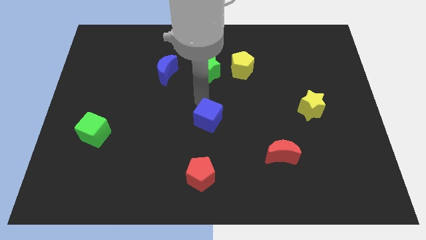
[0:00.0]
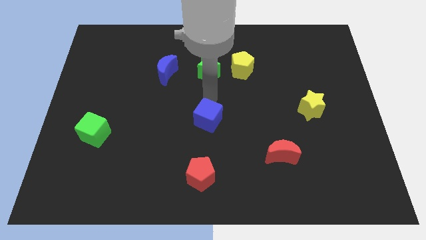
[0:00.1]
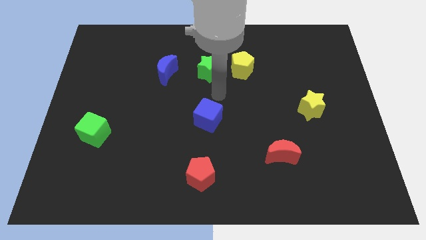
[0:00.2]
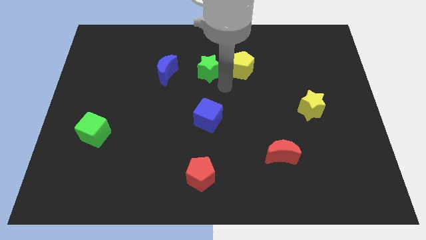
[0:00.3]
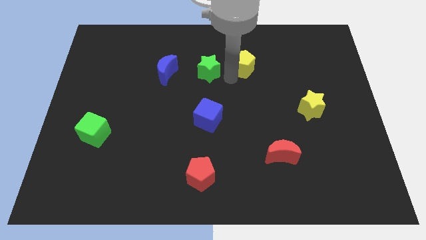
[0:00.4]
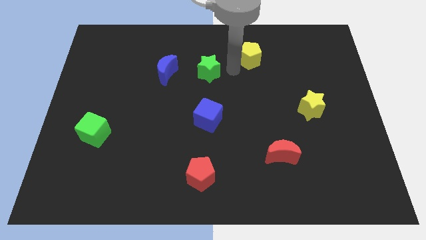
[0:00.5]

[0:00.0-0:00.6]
move the green star away from the yellow pentagon

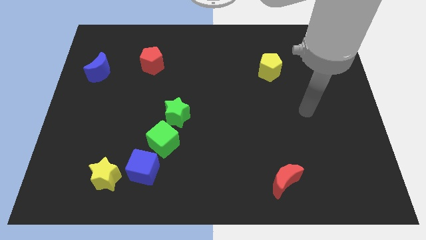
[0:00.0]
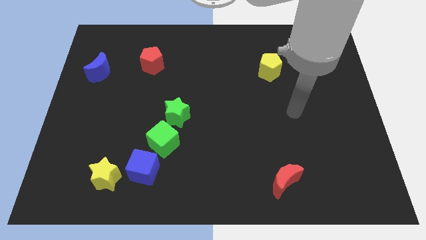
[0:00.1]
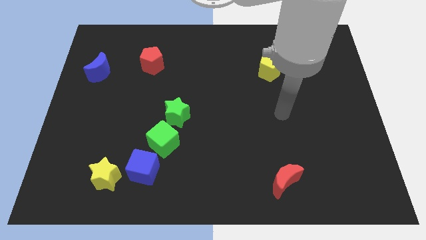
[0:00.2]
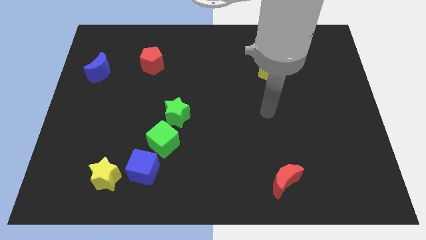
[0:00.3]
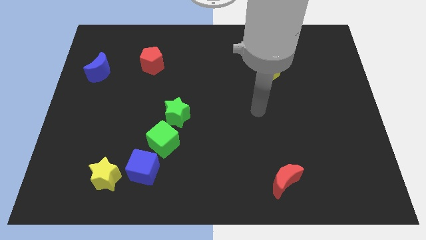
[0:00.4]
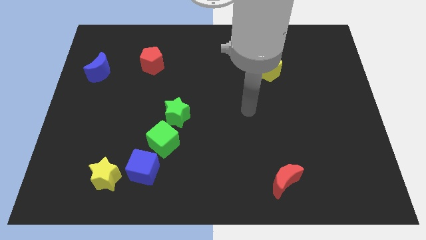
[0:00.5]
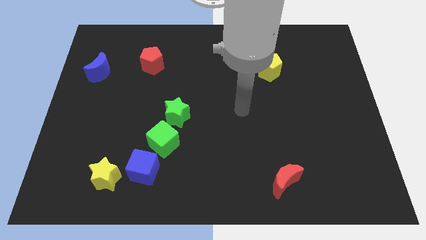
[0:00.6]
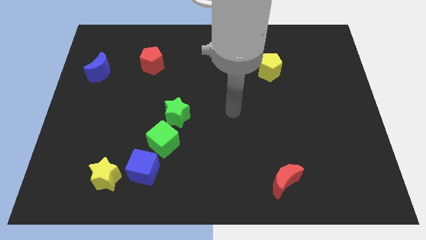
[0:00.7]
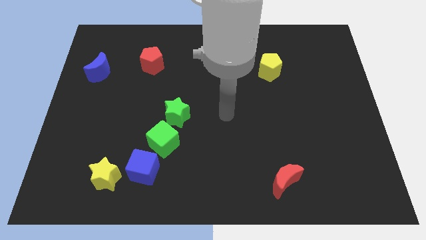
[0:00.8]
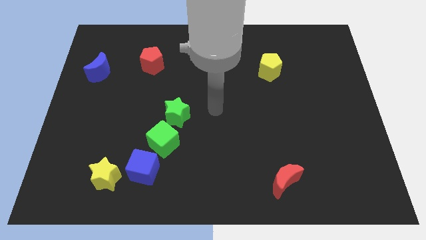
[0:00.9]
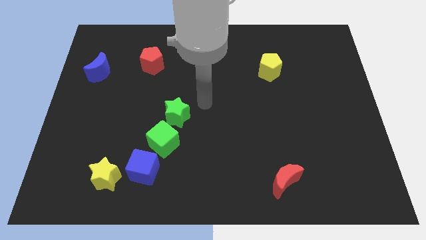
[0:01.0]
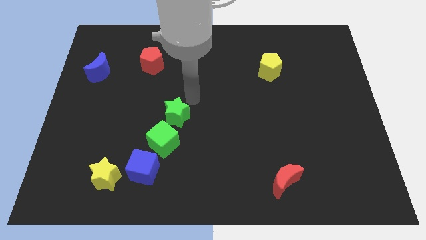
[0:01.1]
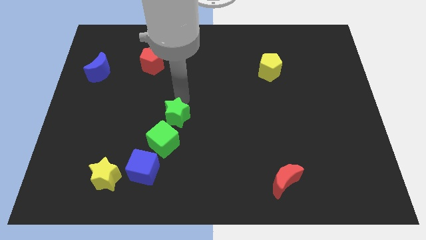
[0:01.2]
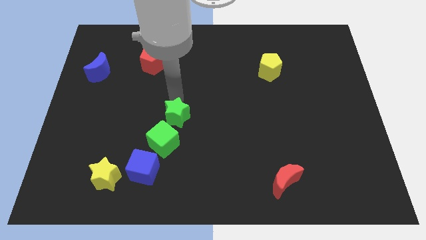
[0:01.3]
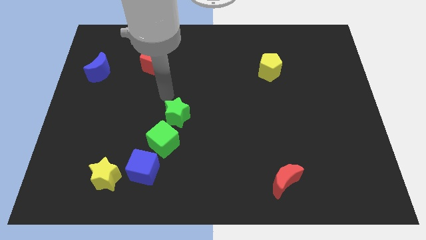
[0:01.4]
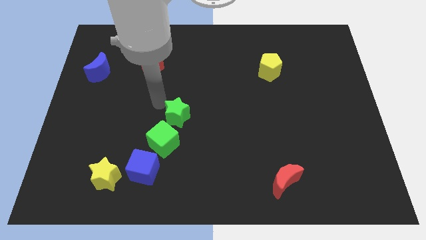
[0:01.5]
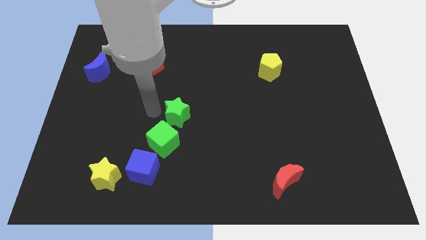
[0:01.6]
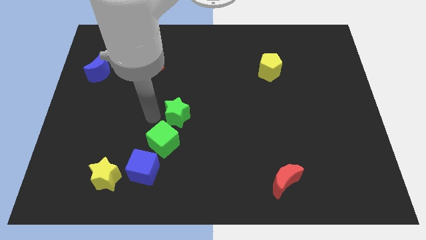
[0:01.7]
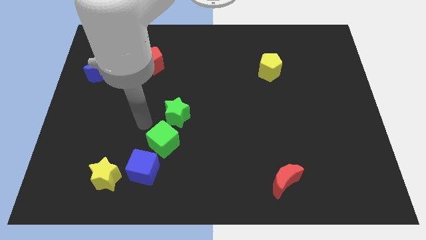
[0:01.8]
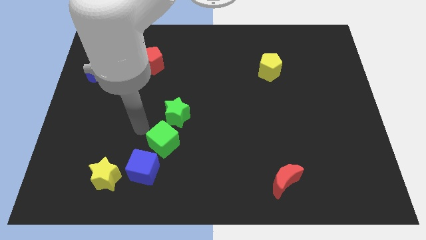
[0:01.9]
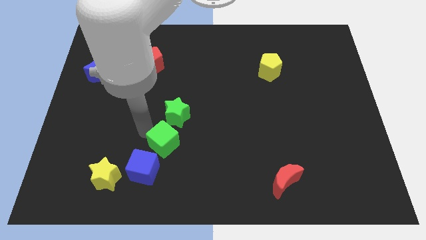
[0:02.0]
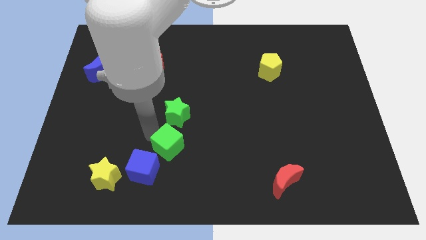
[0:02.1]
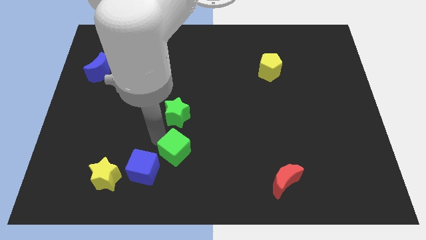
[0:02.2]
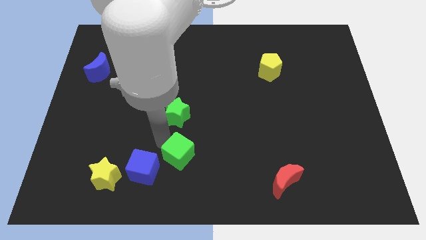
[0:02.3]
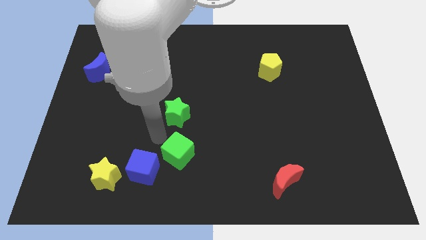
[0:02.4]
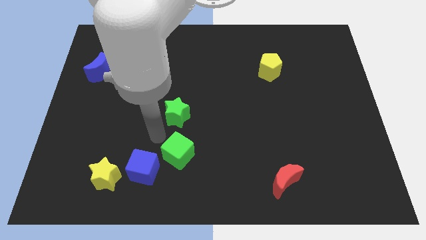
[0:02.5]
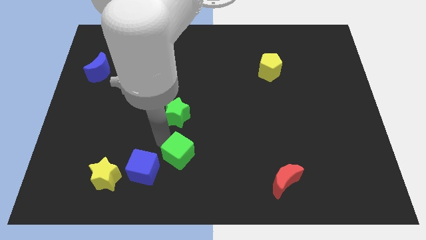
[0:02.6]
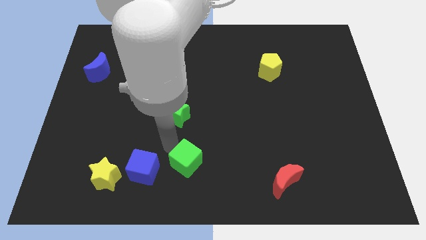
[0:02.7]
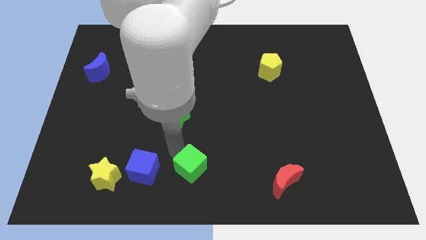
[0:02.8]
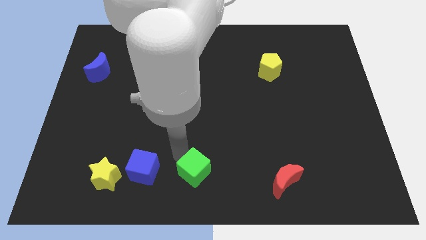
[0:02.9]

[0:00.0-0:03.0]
pull the green cube apart from the blue cube and green star

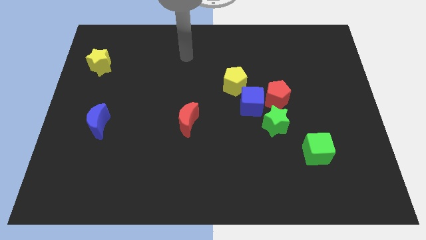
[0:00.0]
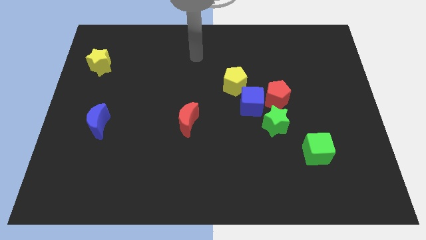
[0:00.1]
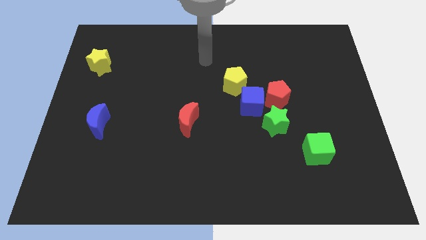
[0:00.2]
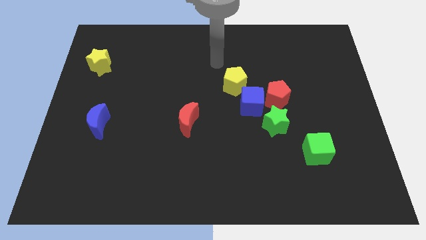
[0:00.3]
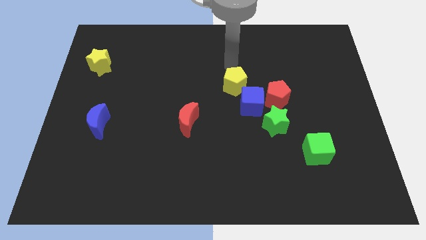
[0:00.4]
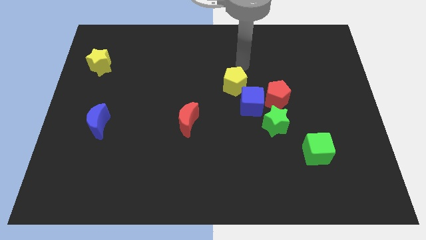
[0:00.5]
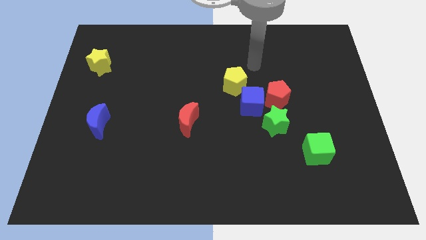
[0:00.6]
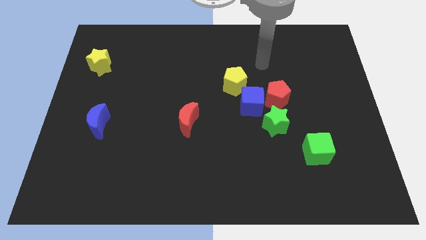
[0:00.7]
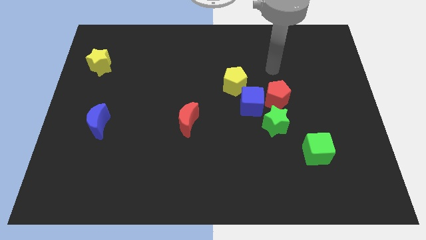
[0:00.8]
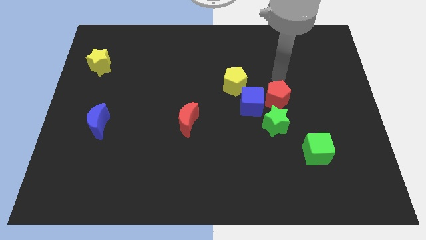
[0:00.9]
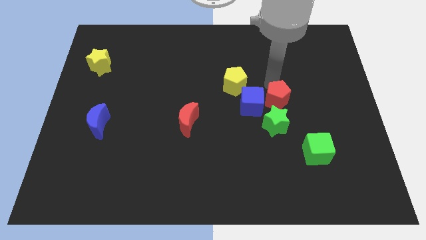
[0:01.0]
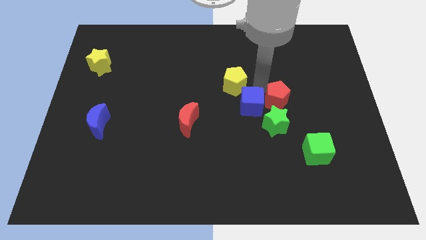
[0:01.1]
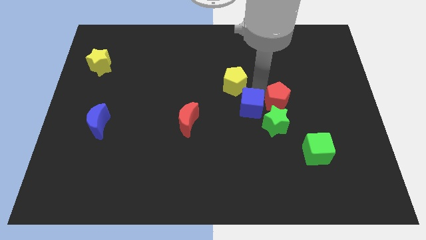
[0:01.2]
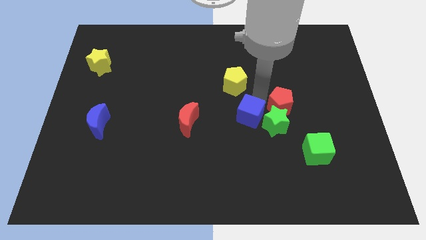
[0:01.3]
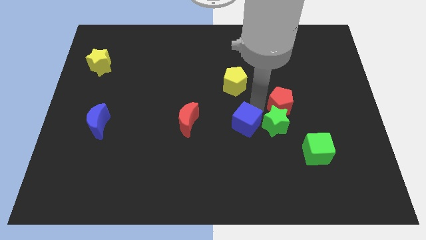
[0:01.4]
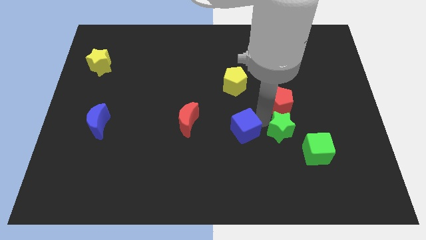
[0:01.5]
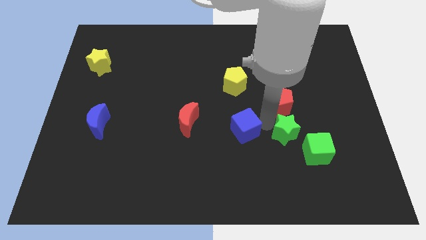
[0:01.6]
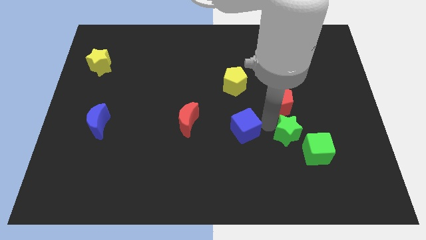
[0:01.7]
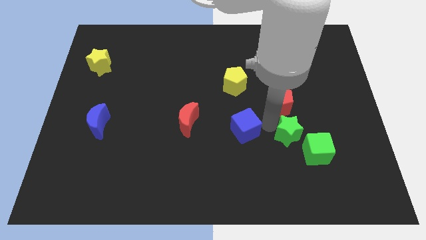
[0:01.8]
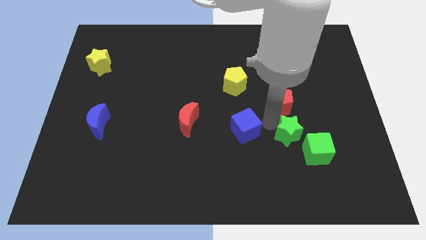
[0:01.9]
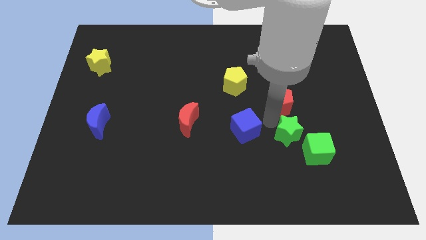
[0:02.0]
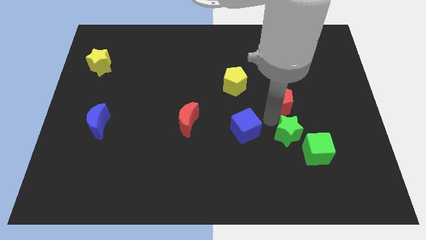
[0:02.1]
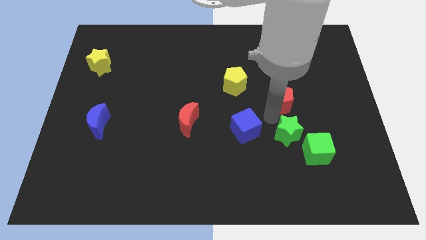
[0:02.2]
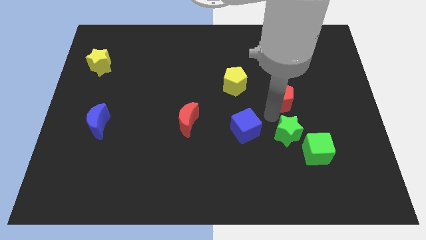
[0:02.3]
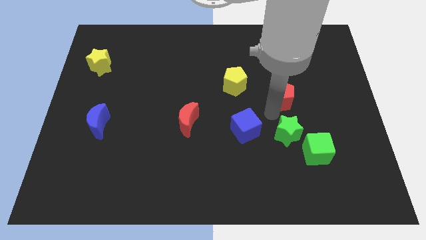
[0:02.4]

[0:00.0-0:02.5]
pull the red pentagon apart from the blue cube and green star

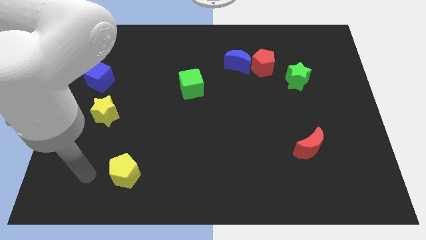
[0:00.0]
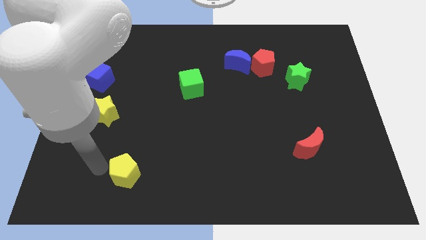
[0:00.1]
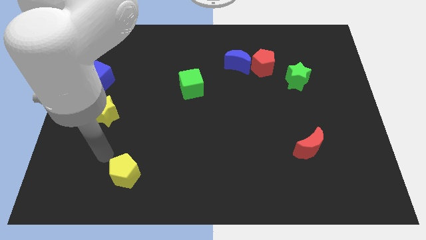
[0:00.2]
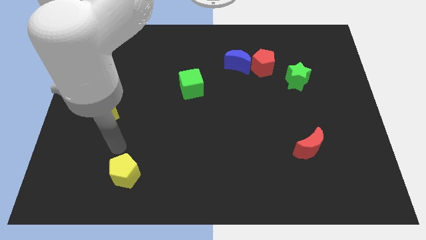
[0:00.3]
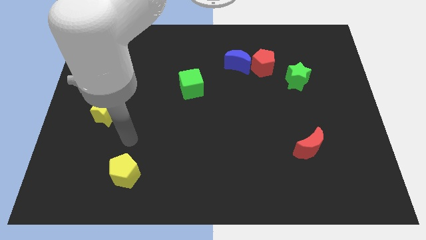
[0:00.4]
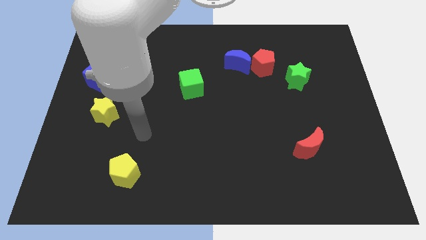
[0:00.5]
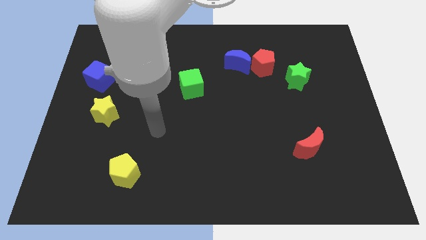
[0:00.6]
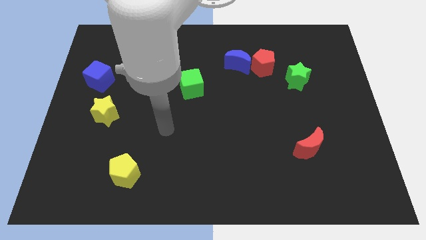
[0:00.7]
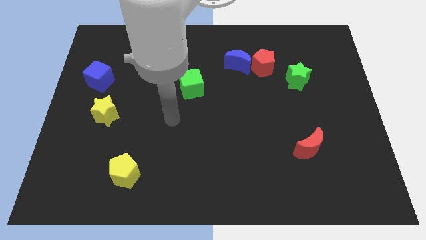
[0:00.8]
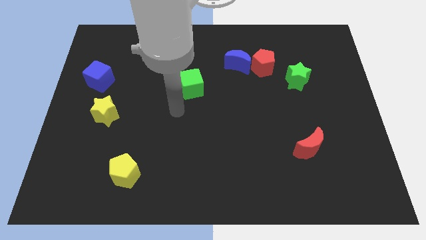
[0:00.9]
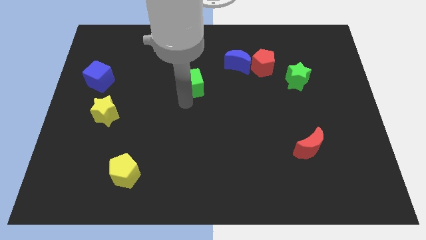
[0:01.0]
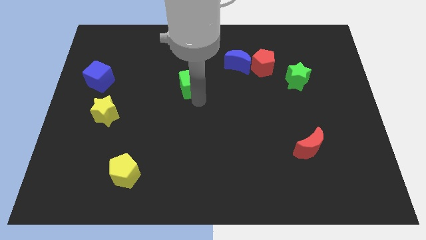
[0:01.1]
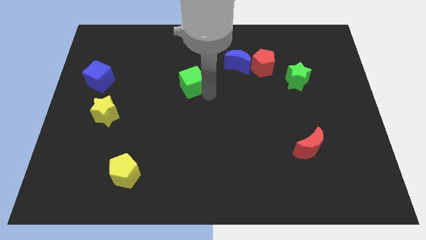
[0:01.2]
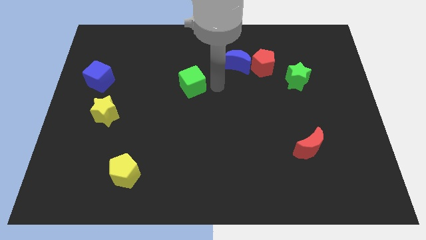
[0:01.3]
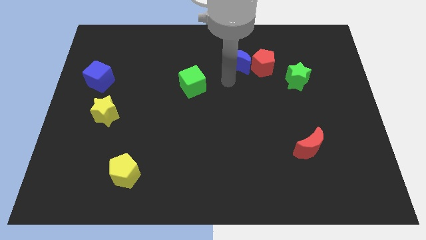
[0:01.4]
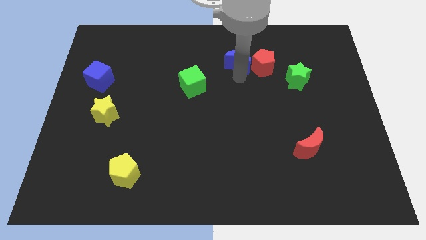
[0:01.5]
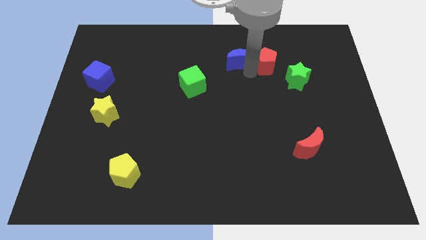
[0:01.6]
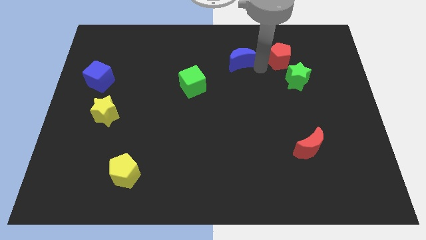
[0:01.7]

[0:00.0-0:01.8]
move the blue moon away from the red pentagon

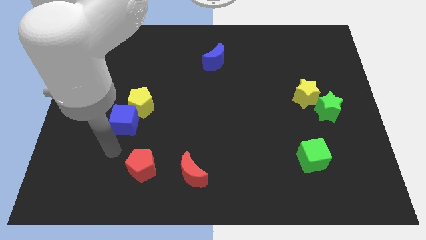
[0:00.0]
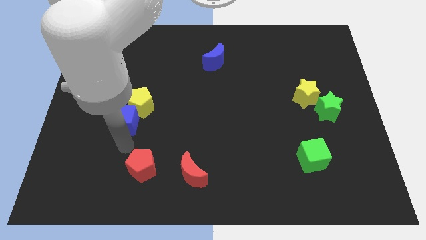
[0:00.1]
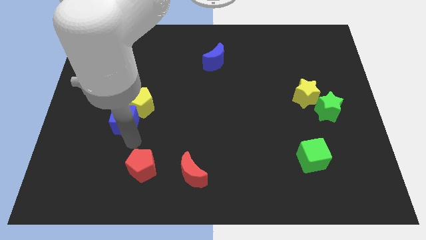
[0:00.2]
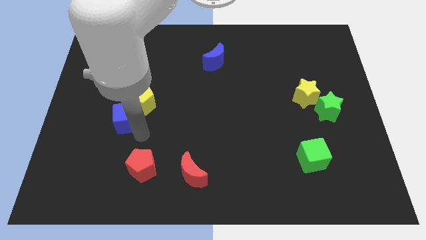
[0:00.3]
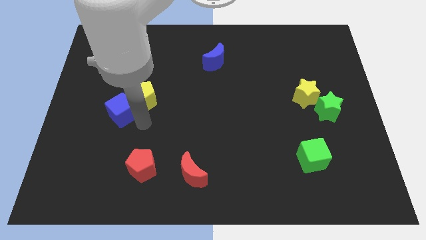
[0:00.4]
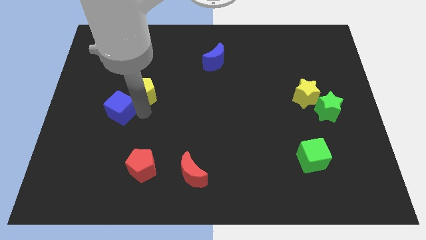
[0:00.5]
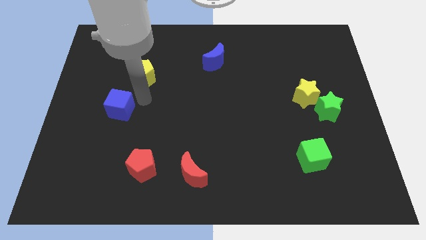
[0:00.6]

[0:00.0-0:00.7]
pull the blue cube apart from the yellow pentagon

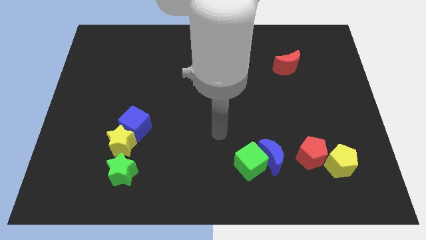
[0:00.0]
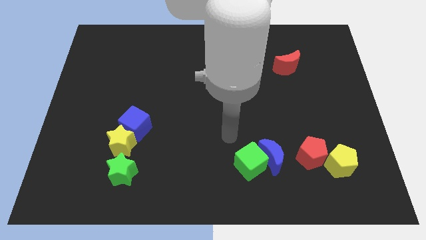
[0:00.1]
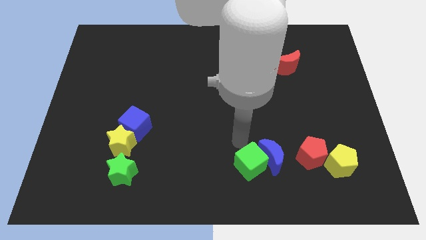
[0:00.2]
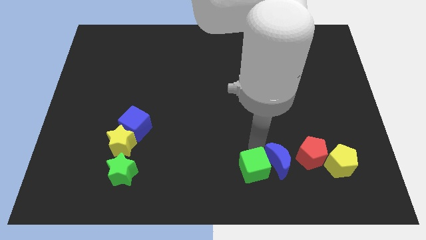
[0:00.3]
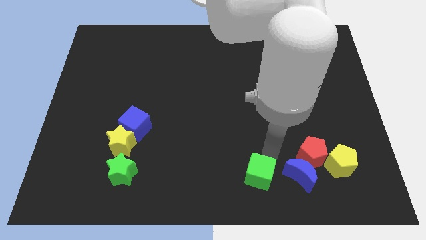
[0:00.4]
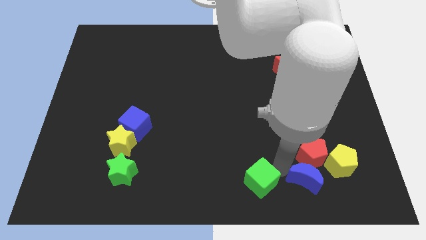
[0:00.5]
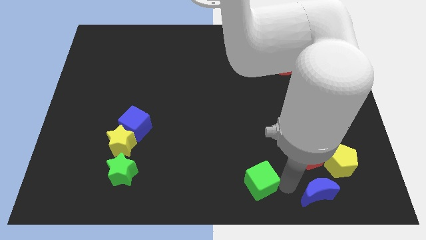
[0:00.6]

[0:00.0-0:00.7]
move the green cube away from the blue moon
